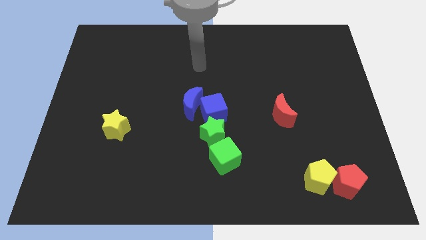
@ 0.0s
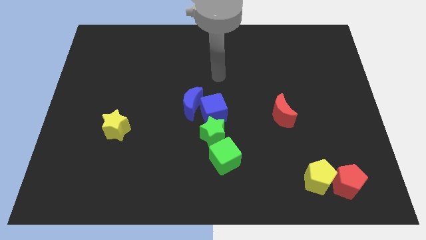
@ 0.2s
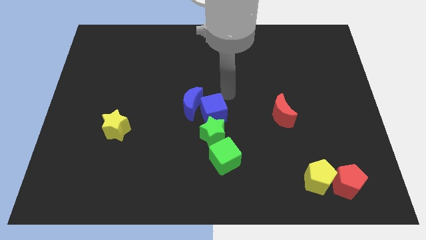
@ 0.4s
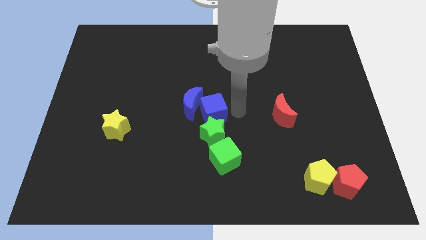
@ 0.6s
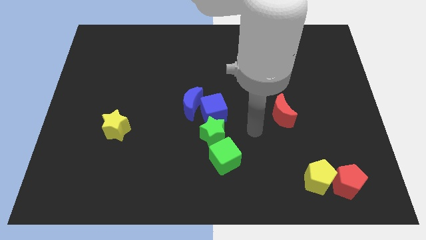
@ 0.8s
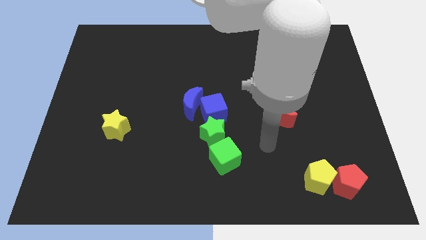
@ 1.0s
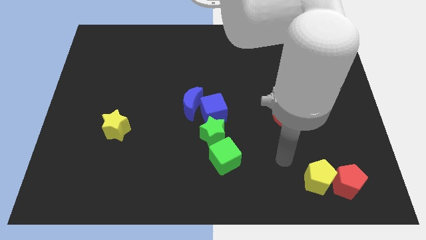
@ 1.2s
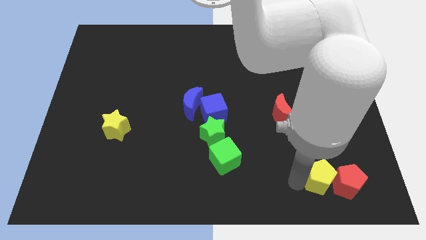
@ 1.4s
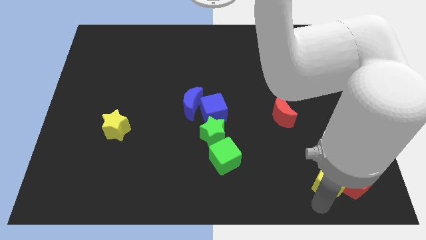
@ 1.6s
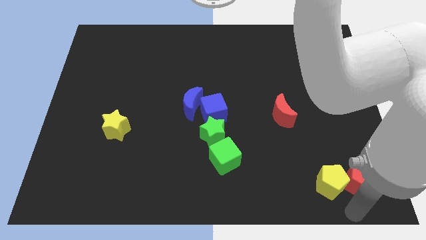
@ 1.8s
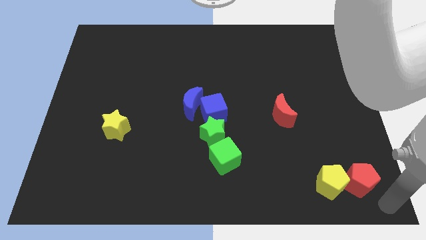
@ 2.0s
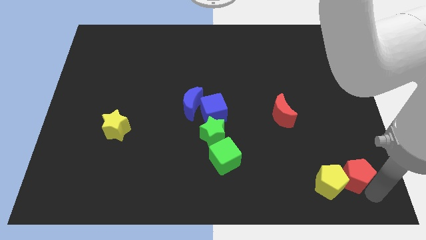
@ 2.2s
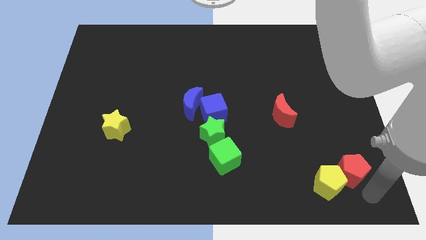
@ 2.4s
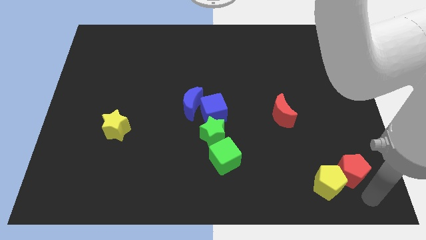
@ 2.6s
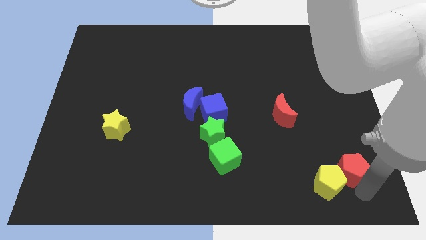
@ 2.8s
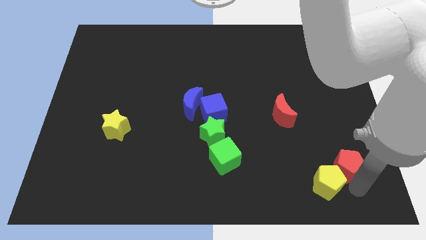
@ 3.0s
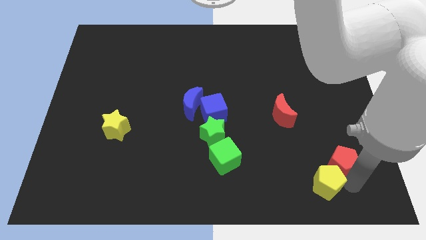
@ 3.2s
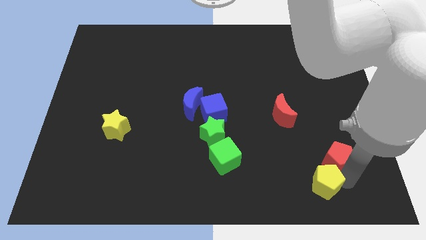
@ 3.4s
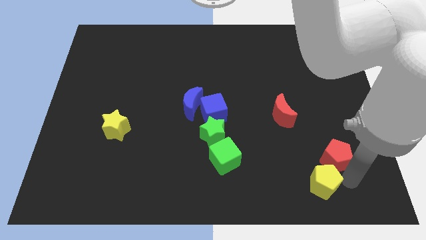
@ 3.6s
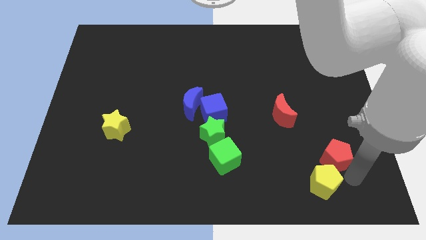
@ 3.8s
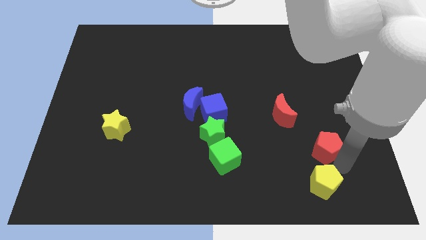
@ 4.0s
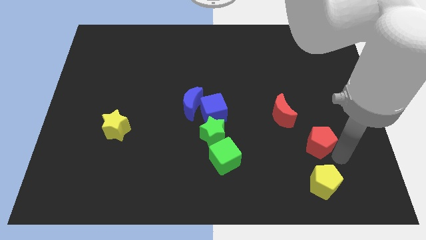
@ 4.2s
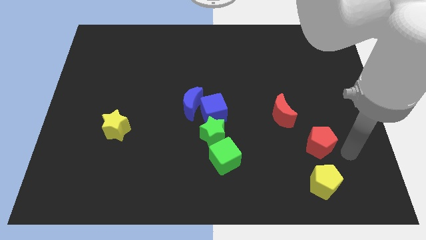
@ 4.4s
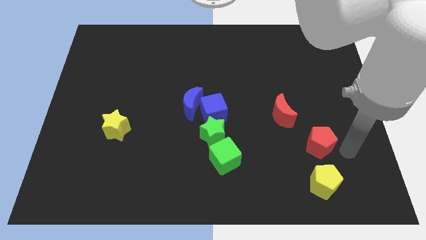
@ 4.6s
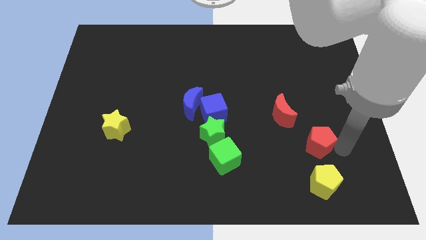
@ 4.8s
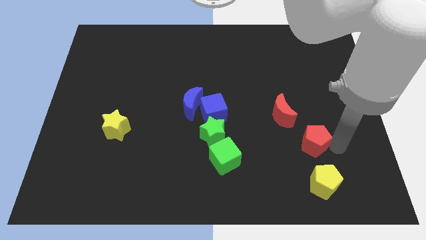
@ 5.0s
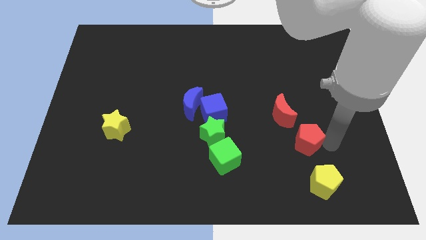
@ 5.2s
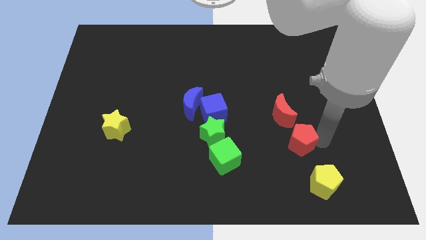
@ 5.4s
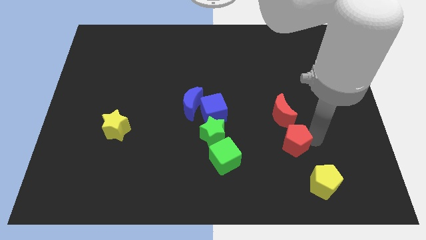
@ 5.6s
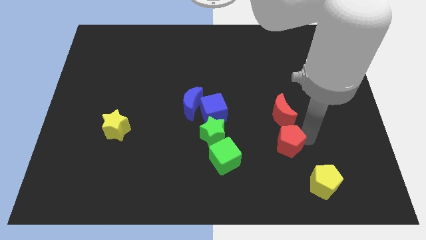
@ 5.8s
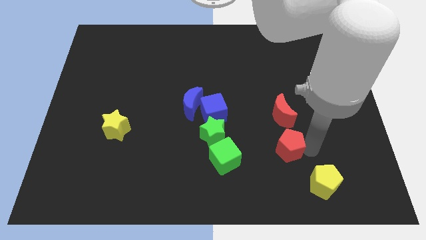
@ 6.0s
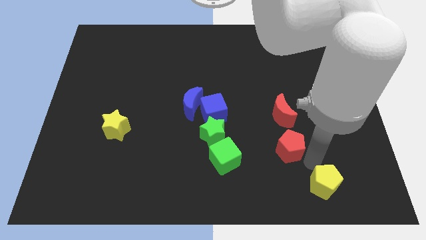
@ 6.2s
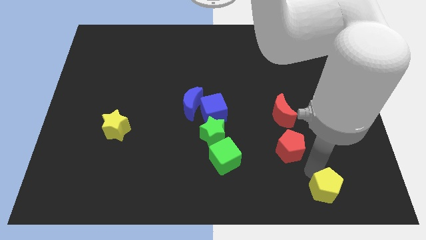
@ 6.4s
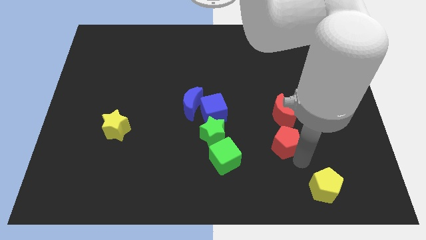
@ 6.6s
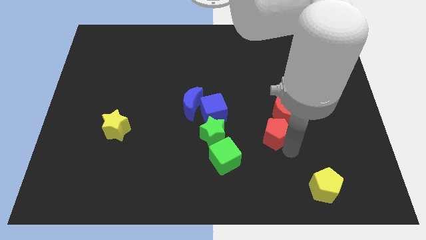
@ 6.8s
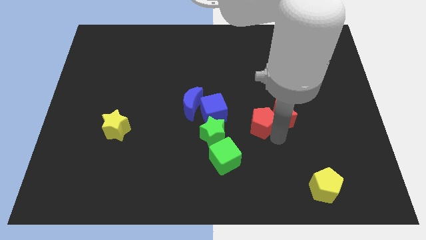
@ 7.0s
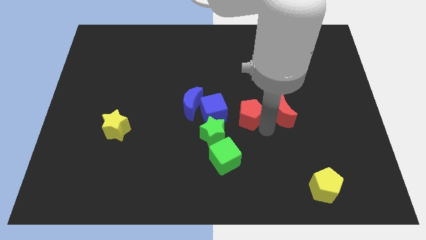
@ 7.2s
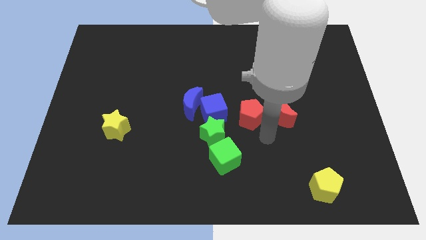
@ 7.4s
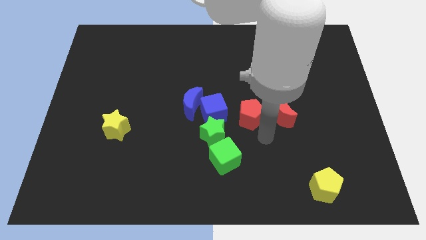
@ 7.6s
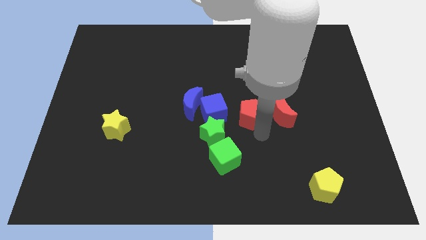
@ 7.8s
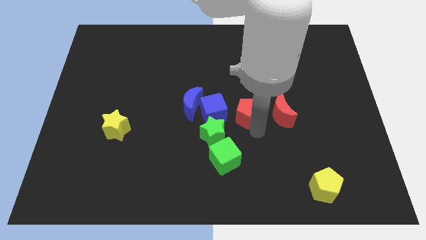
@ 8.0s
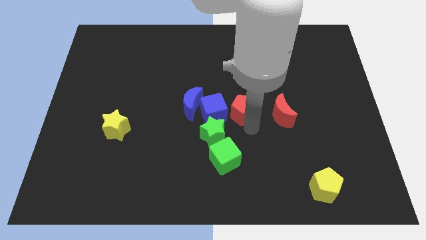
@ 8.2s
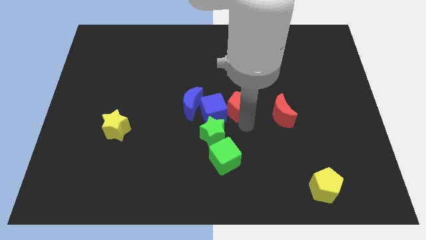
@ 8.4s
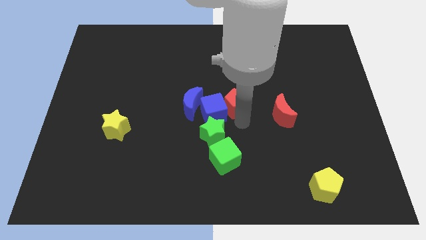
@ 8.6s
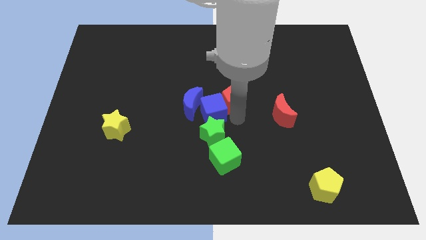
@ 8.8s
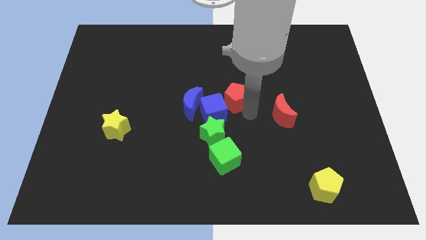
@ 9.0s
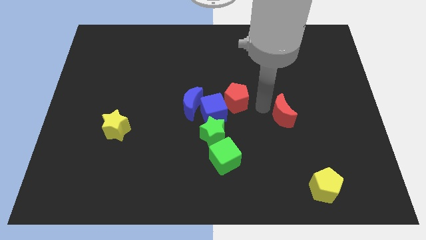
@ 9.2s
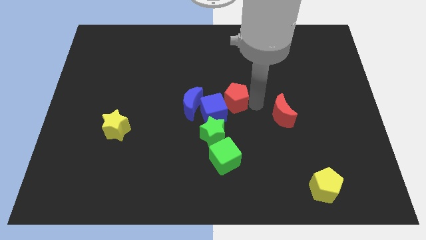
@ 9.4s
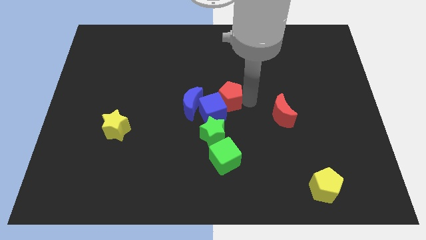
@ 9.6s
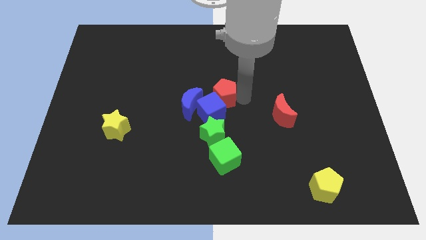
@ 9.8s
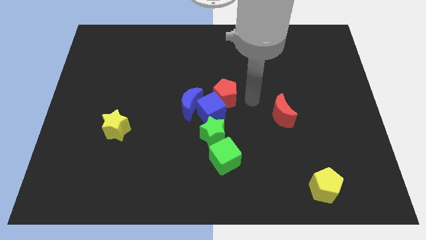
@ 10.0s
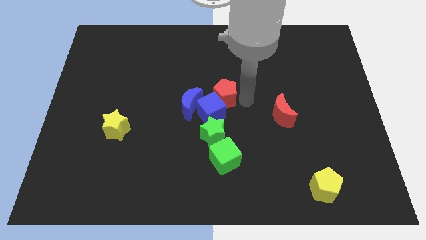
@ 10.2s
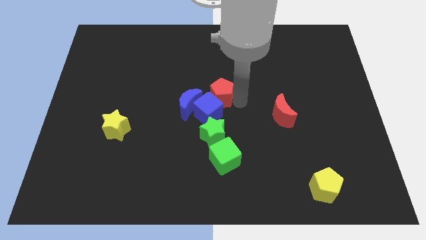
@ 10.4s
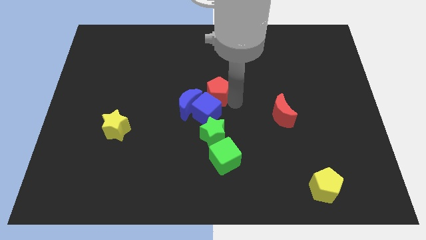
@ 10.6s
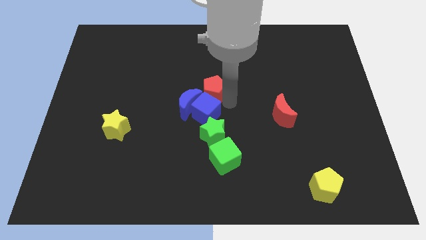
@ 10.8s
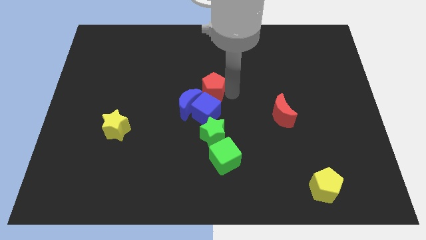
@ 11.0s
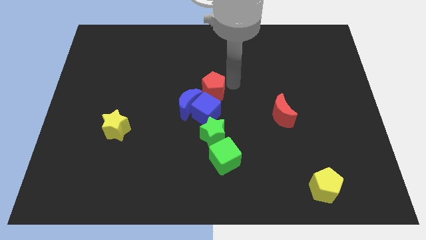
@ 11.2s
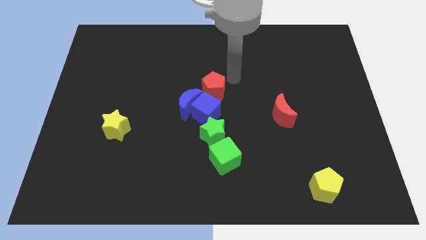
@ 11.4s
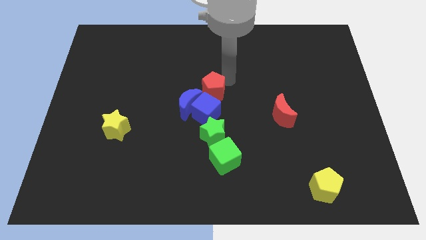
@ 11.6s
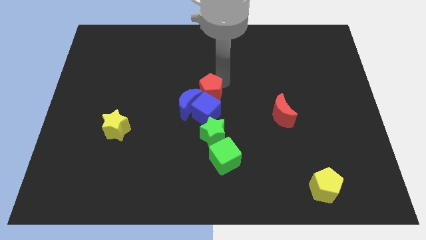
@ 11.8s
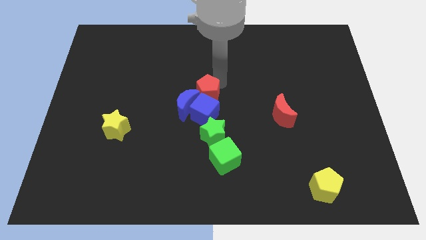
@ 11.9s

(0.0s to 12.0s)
slide the red pentagon close to the blue moon
